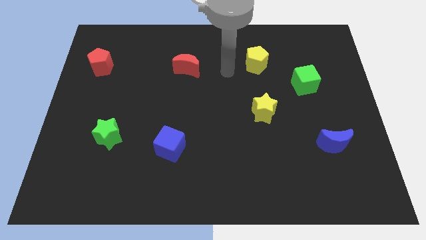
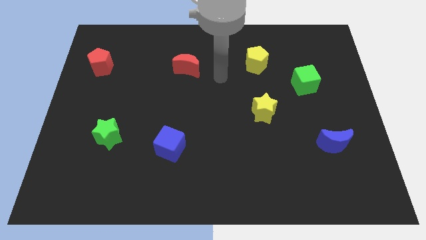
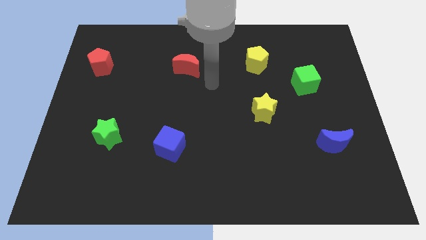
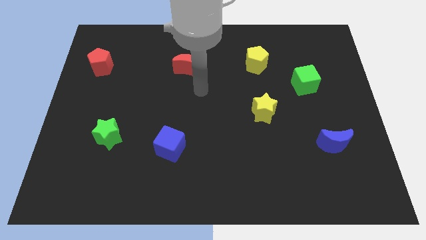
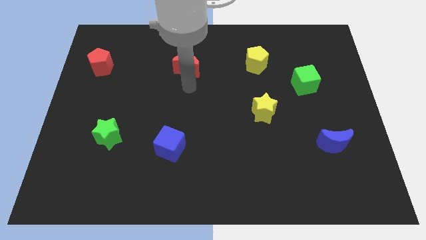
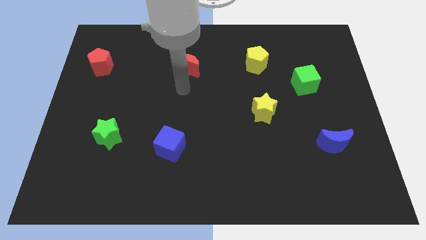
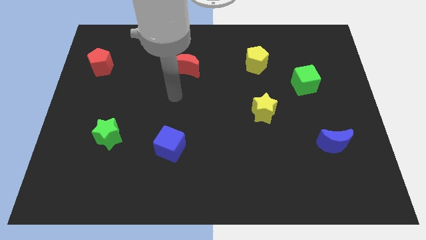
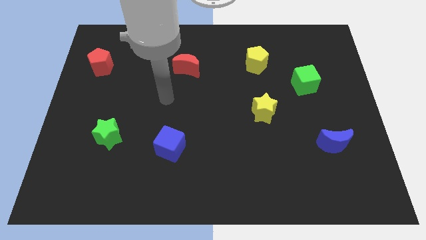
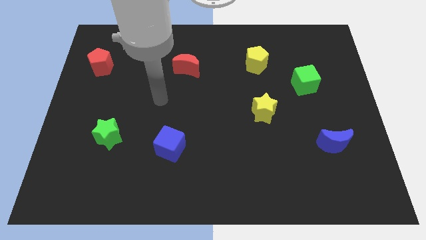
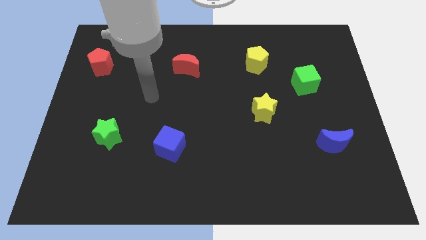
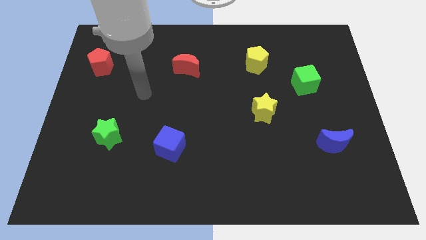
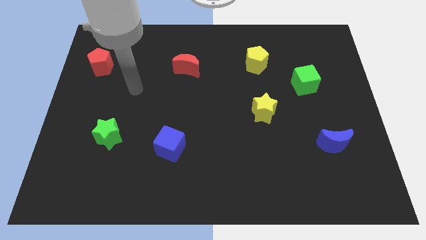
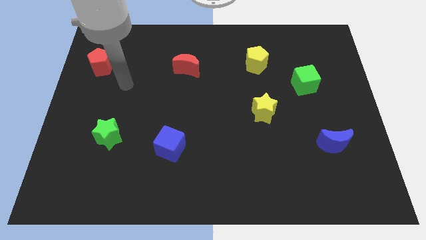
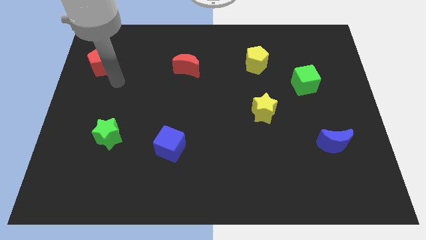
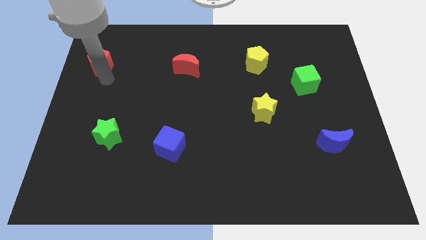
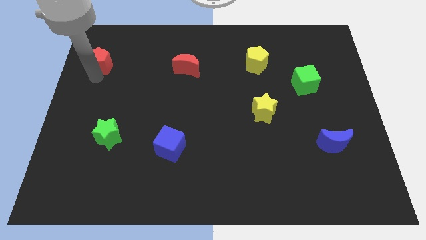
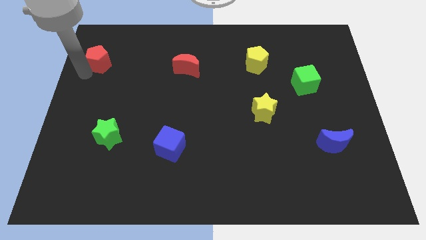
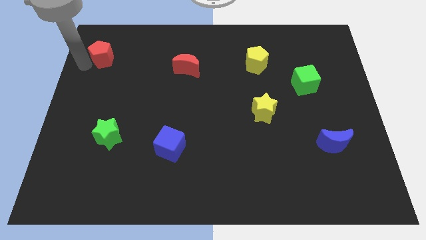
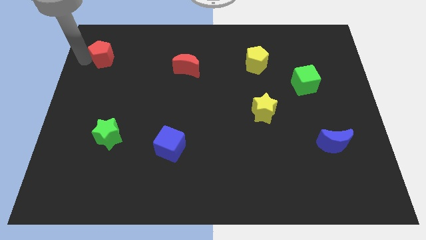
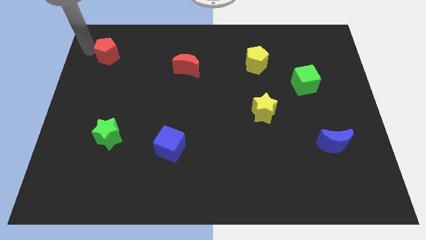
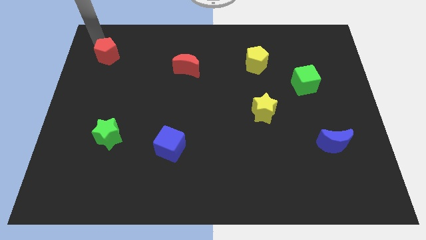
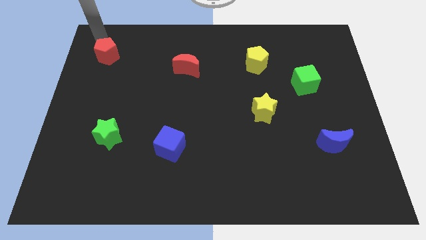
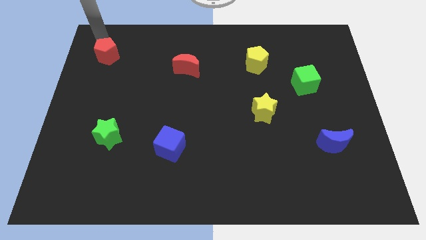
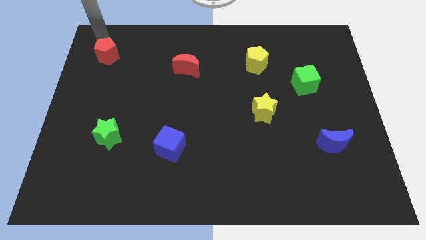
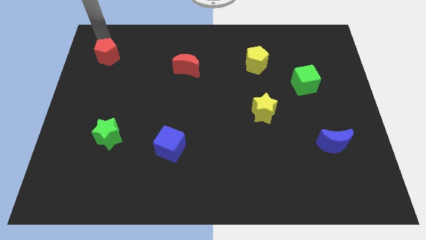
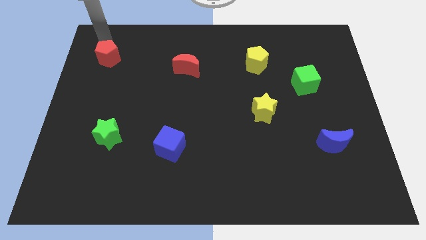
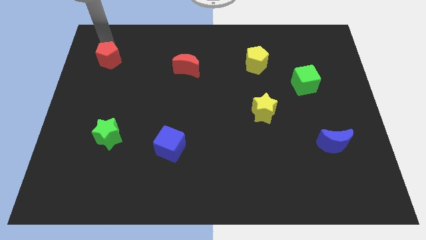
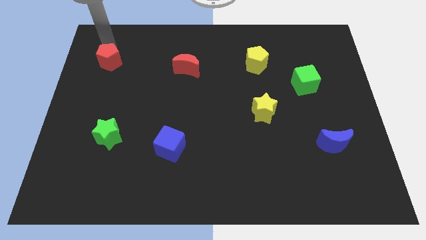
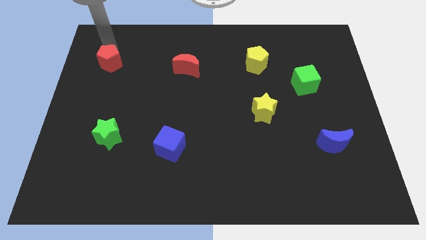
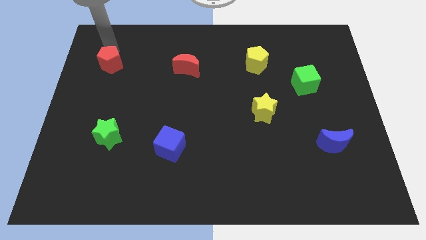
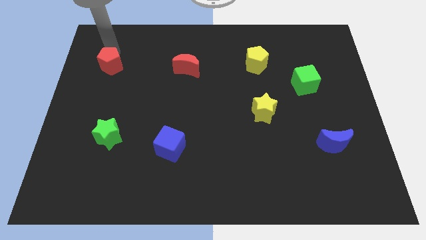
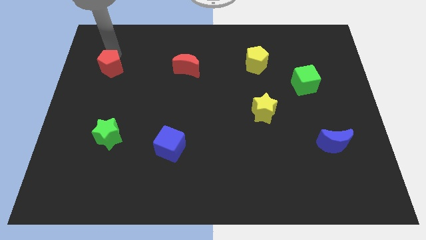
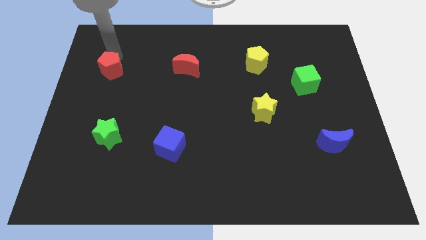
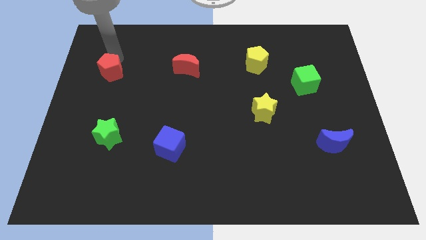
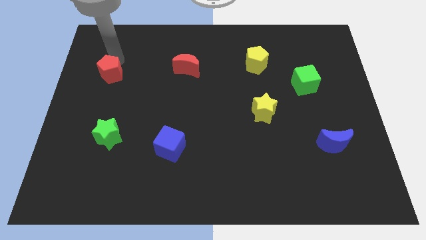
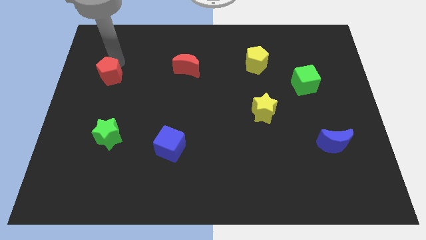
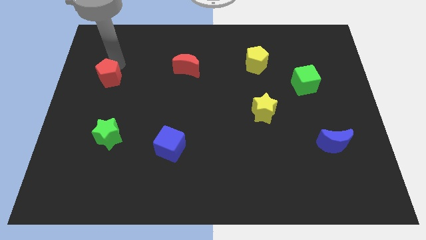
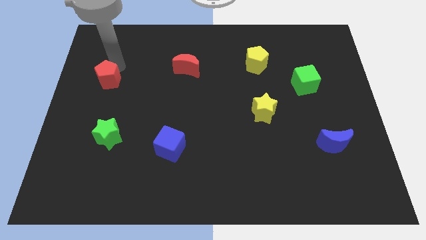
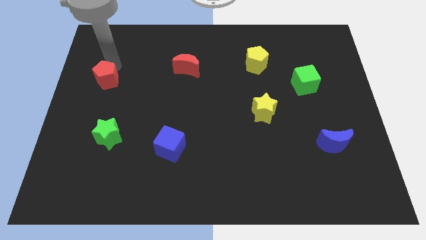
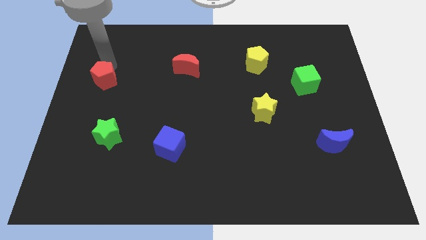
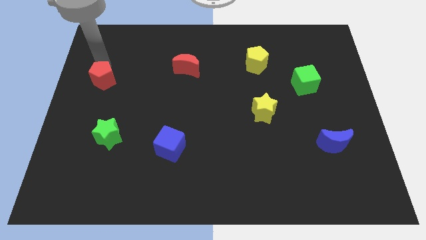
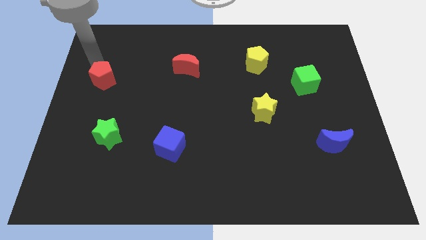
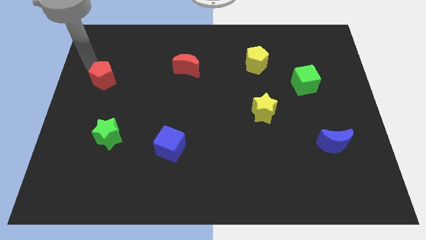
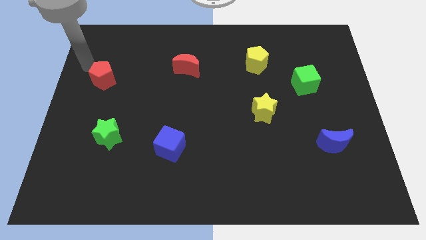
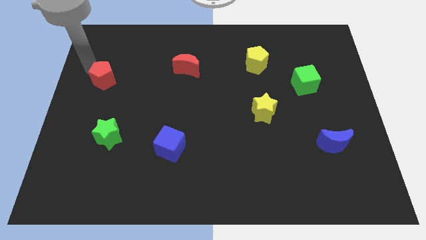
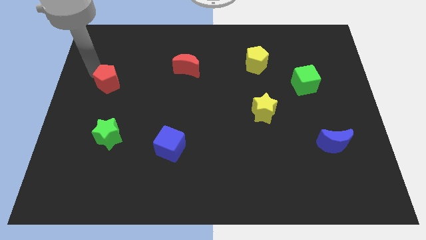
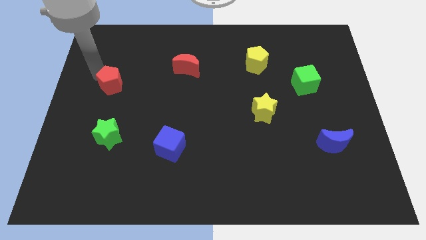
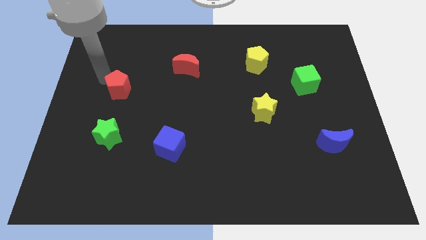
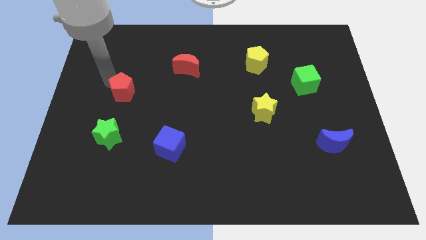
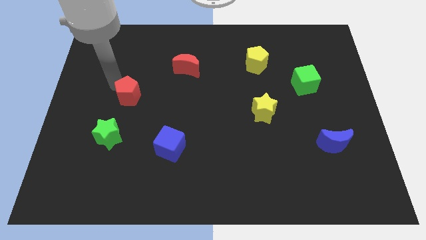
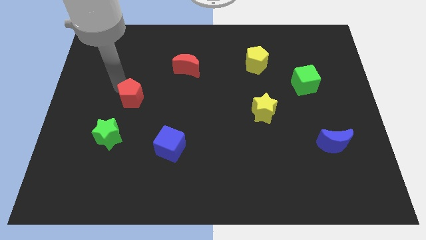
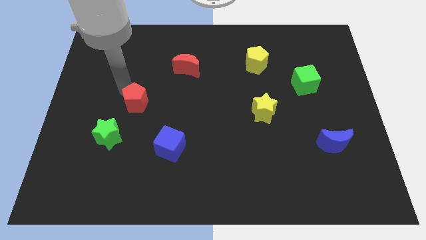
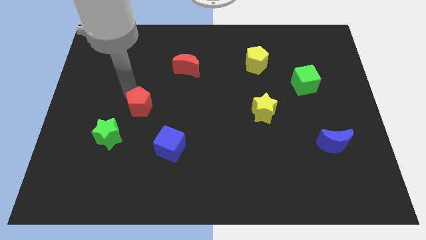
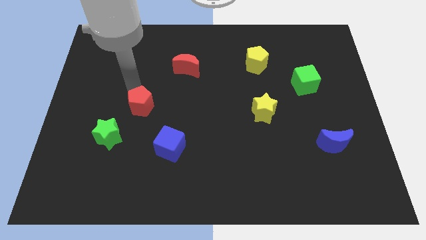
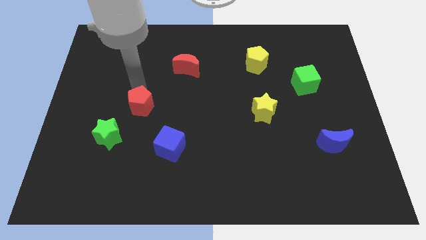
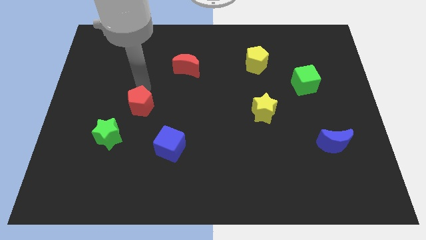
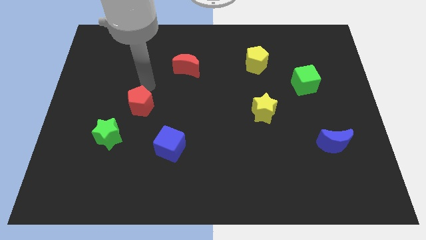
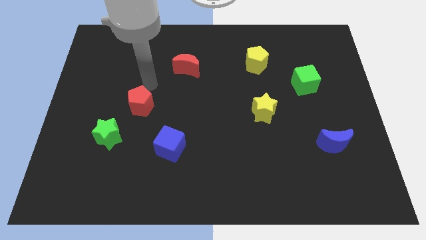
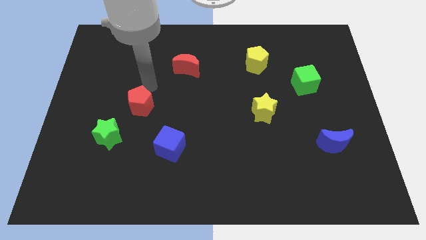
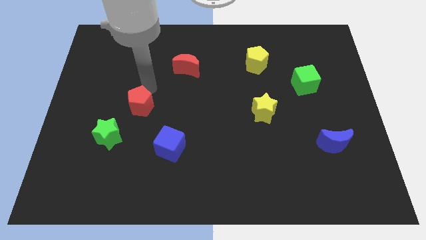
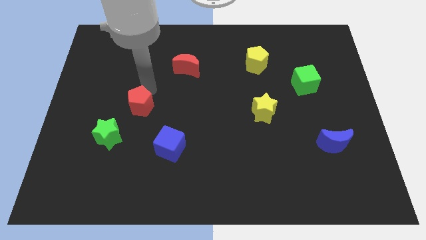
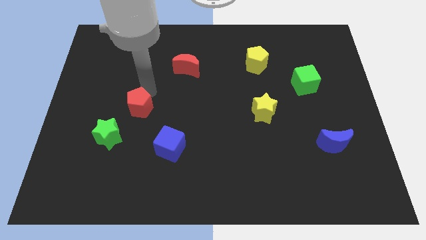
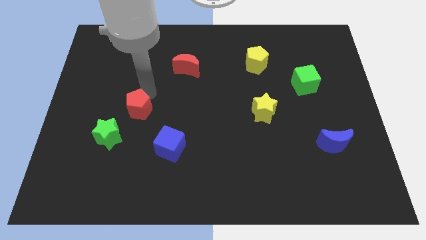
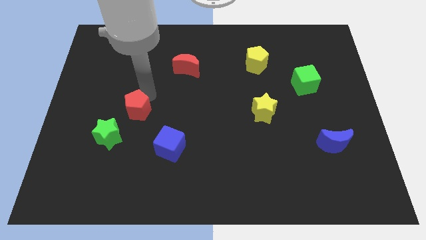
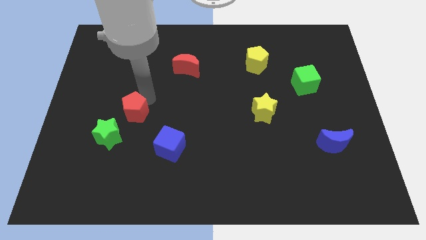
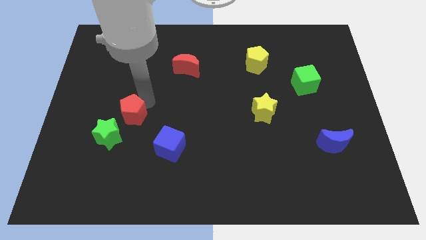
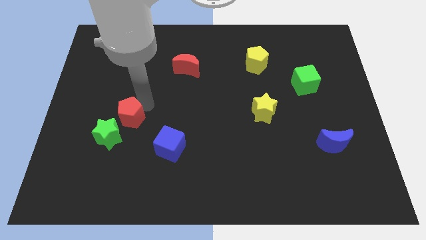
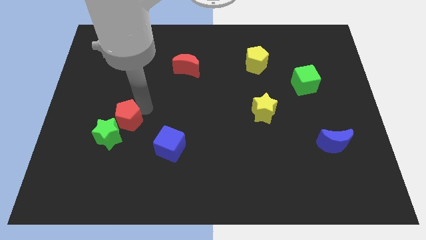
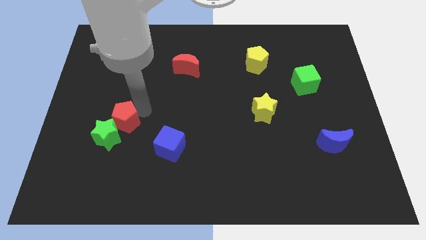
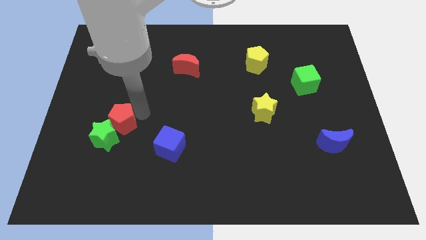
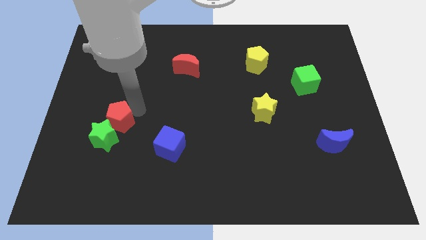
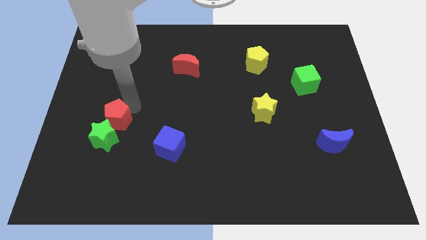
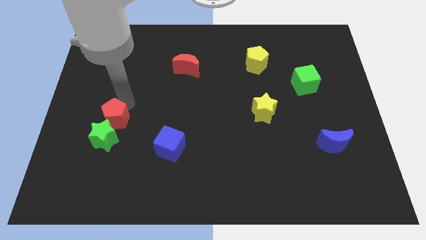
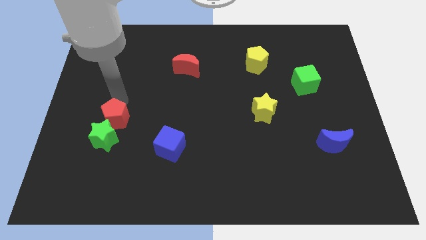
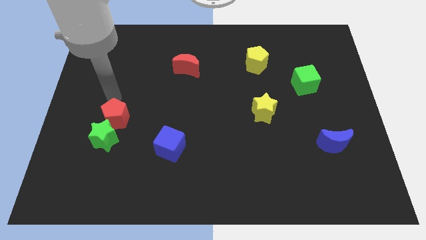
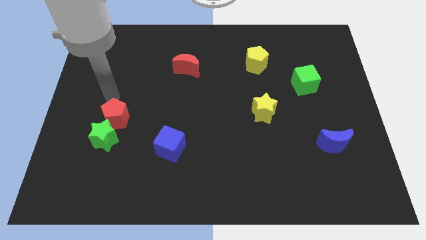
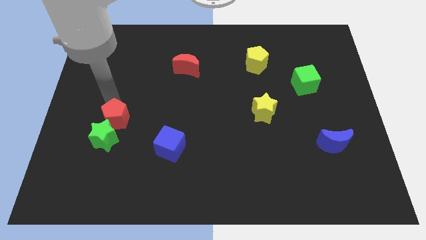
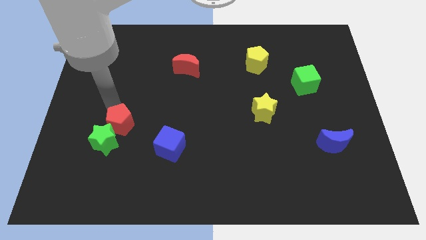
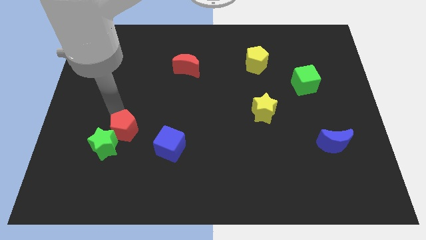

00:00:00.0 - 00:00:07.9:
slide the red pentagon left of the blue cube
